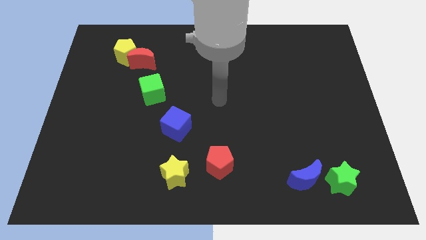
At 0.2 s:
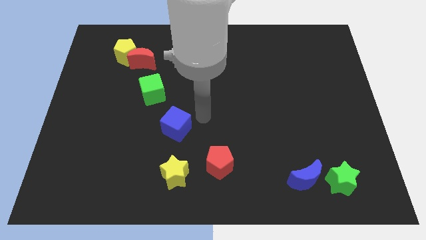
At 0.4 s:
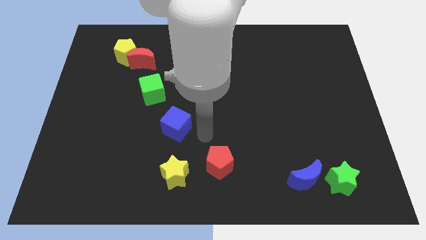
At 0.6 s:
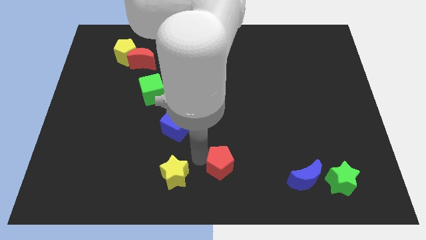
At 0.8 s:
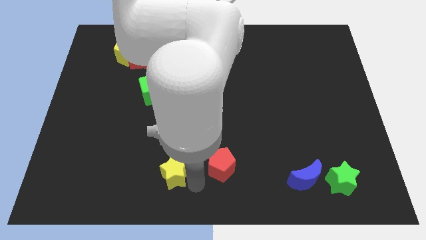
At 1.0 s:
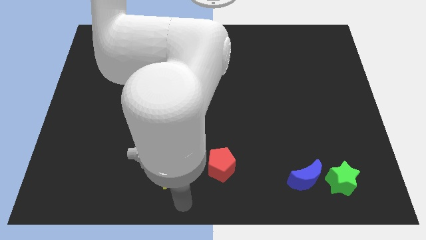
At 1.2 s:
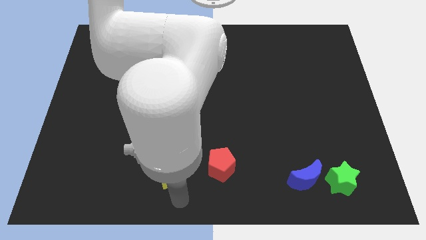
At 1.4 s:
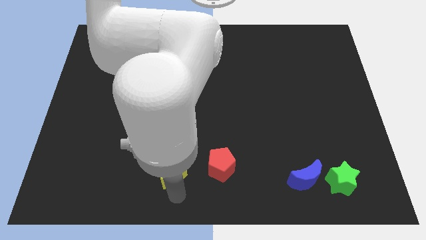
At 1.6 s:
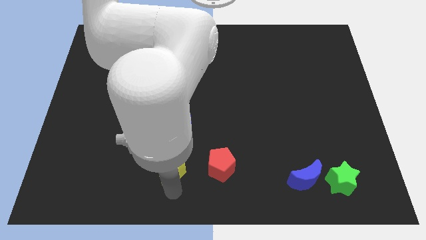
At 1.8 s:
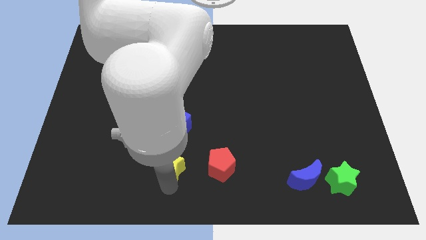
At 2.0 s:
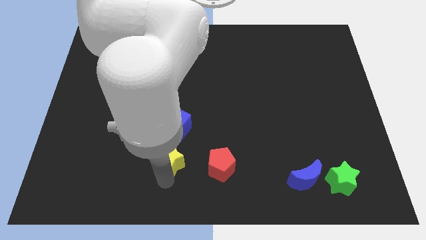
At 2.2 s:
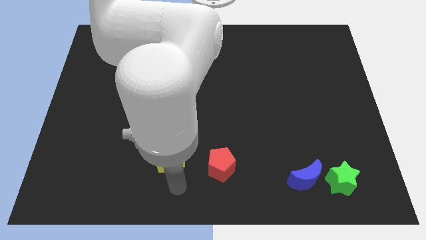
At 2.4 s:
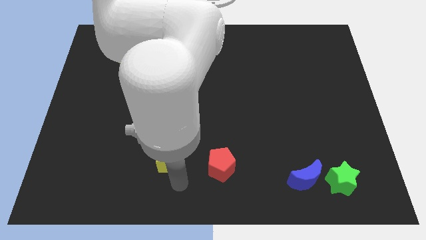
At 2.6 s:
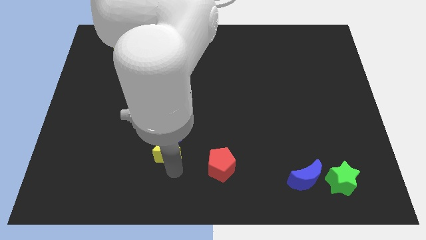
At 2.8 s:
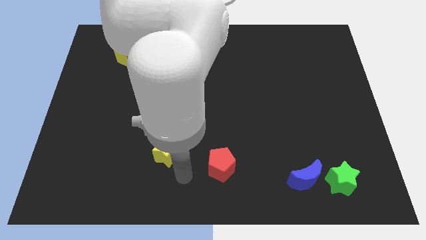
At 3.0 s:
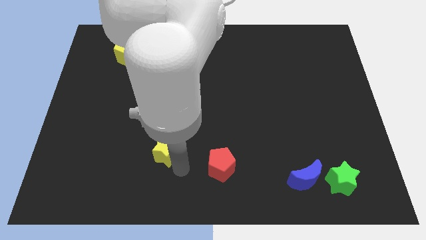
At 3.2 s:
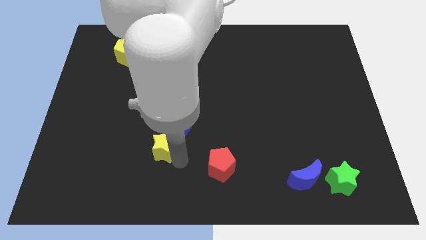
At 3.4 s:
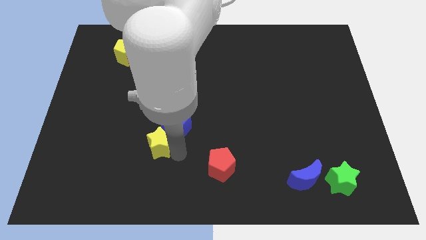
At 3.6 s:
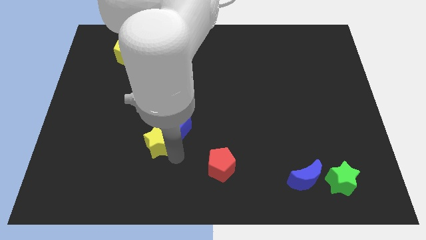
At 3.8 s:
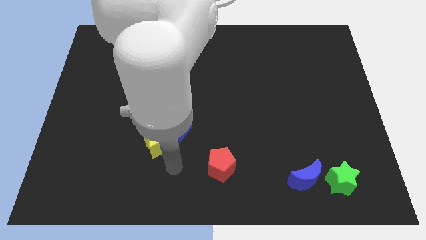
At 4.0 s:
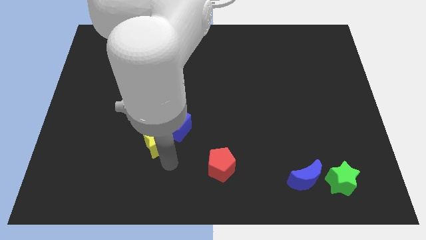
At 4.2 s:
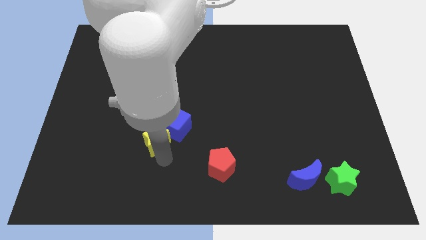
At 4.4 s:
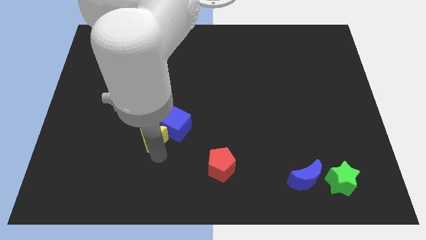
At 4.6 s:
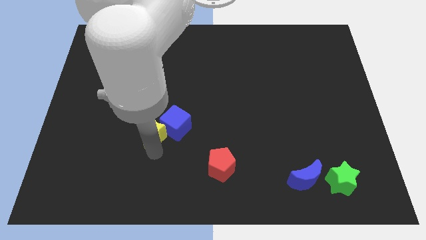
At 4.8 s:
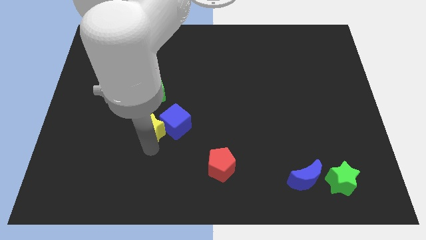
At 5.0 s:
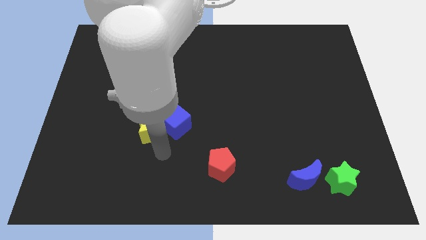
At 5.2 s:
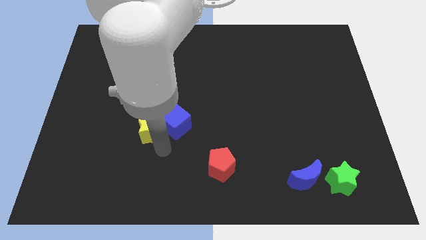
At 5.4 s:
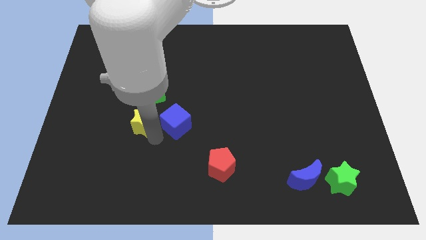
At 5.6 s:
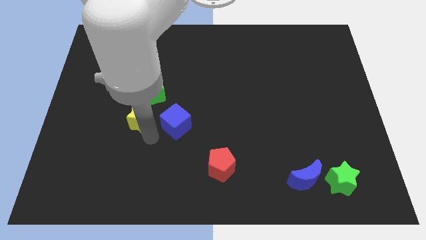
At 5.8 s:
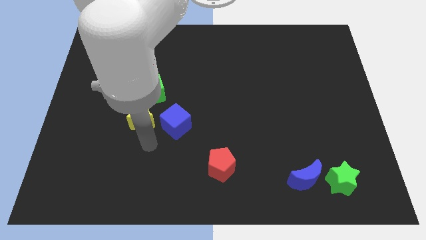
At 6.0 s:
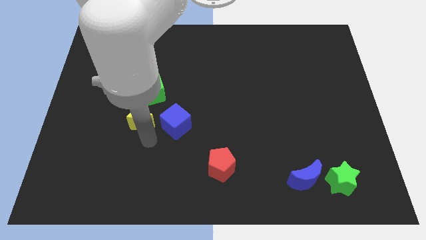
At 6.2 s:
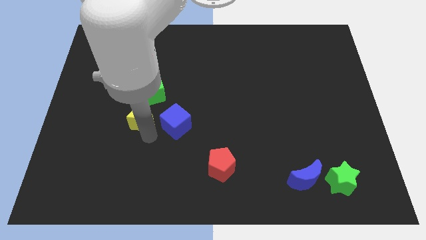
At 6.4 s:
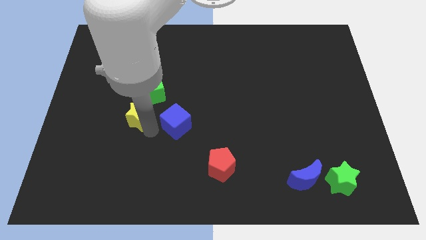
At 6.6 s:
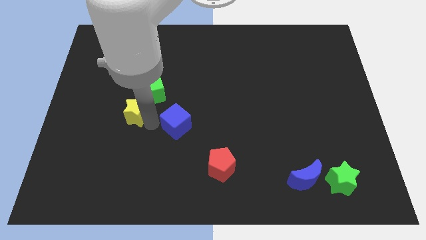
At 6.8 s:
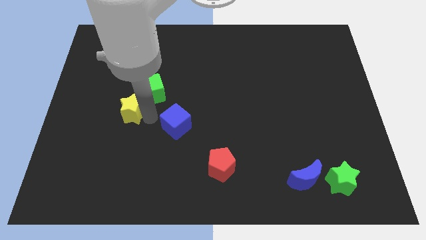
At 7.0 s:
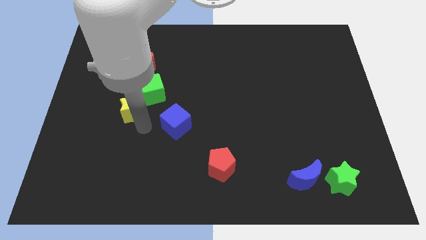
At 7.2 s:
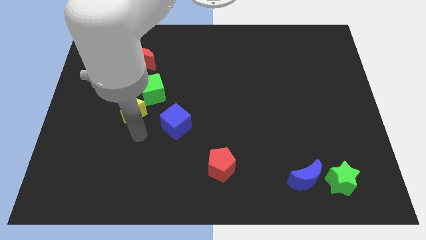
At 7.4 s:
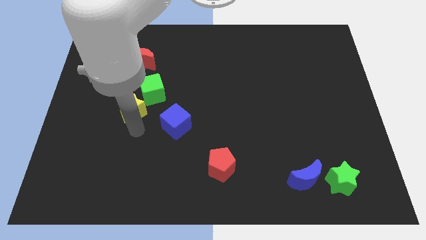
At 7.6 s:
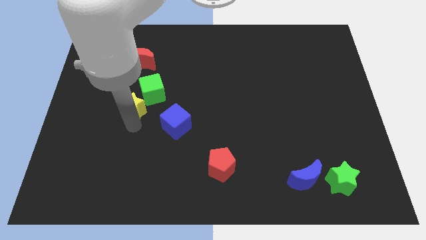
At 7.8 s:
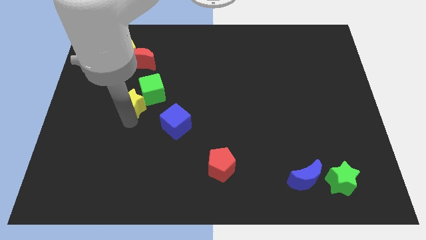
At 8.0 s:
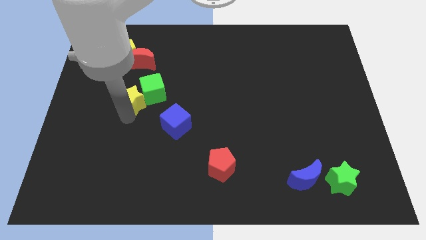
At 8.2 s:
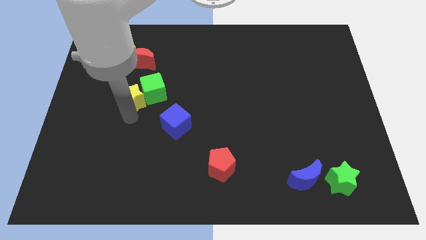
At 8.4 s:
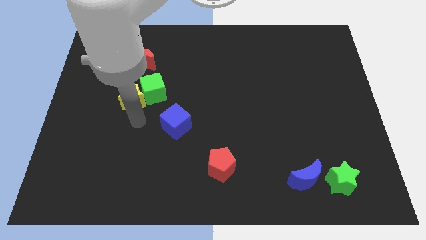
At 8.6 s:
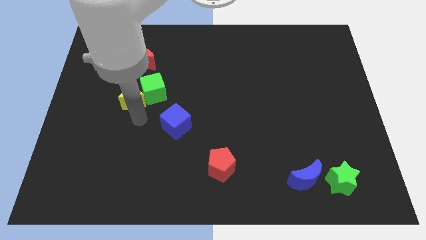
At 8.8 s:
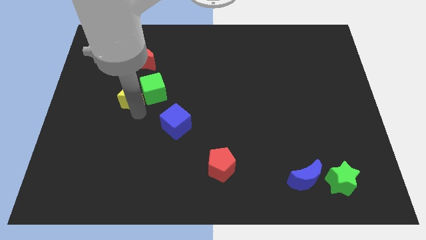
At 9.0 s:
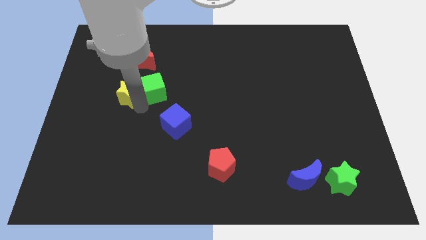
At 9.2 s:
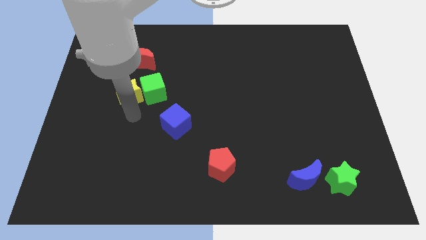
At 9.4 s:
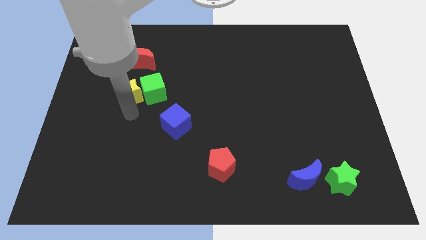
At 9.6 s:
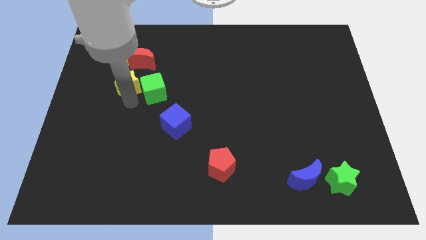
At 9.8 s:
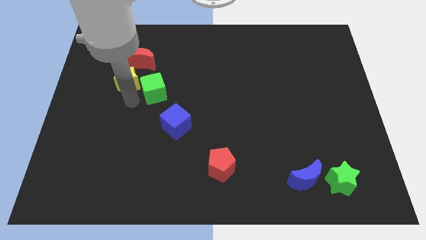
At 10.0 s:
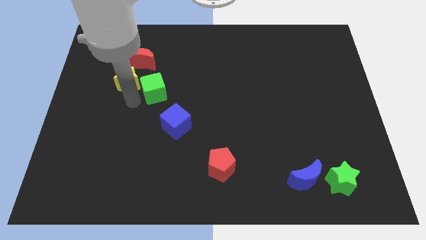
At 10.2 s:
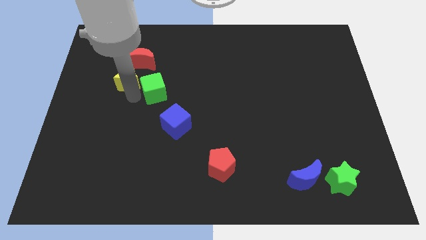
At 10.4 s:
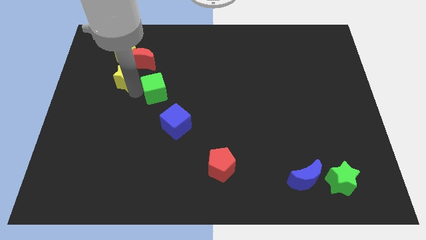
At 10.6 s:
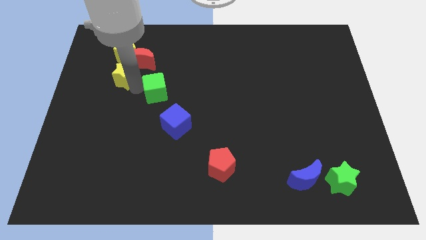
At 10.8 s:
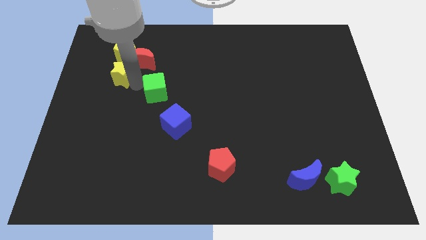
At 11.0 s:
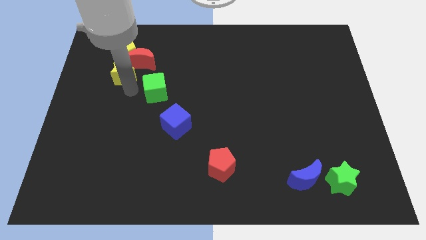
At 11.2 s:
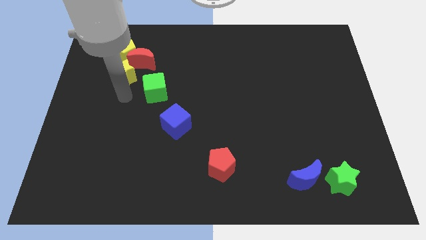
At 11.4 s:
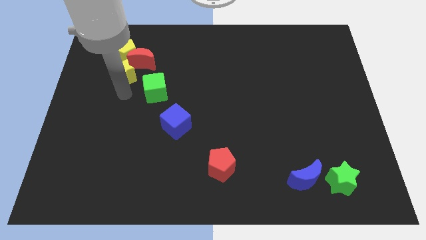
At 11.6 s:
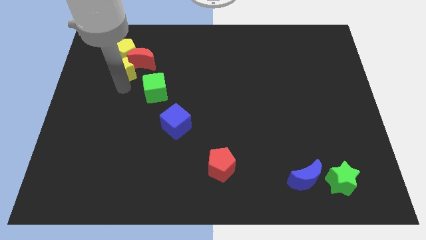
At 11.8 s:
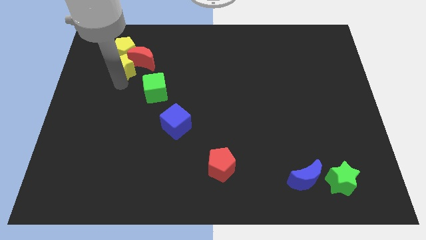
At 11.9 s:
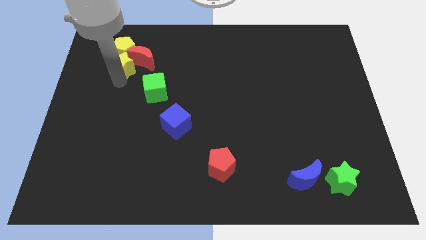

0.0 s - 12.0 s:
put the yellow star towards the yellow pentagon

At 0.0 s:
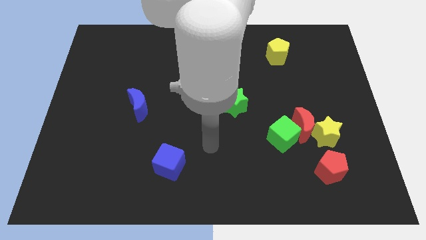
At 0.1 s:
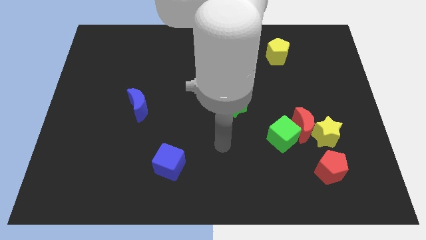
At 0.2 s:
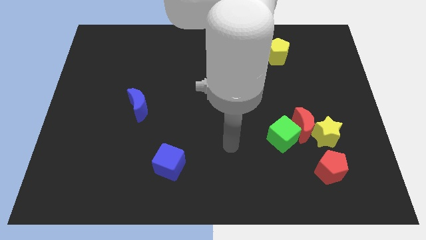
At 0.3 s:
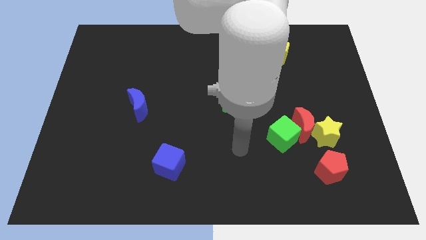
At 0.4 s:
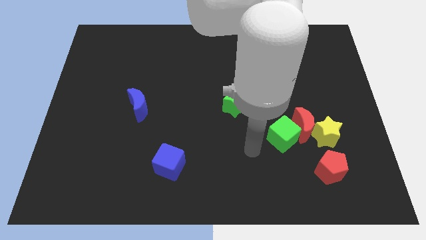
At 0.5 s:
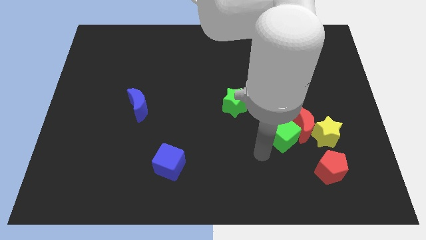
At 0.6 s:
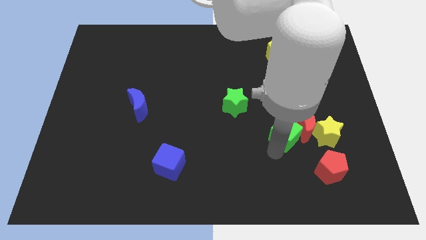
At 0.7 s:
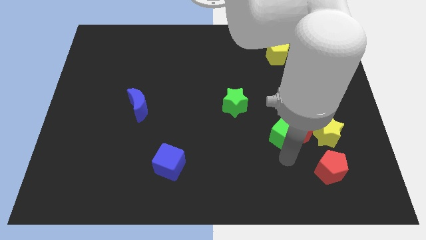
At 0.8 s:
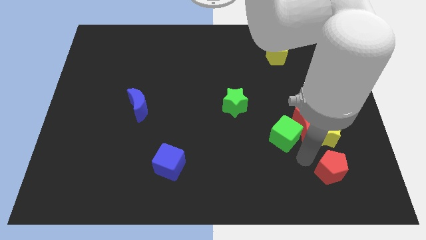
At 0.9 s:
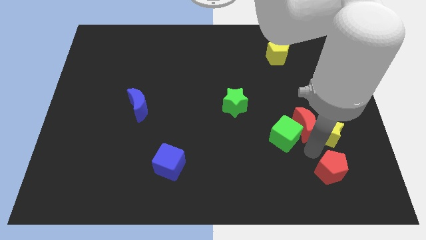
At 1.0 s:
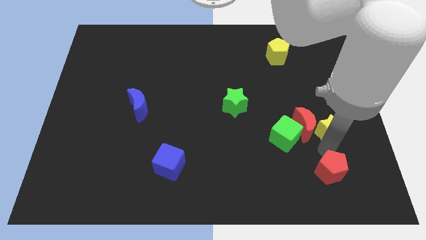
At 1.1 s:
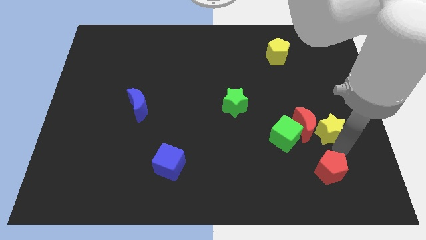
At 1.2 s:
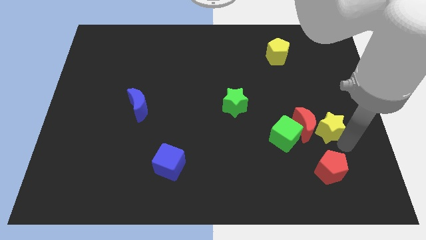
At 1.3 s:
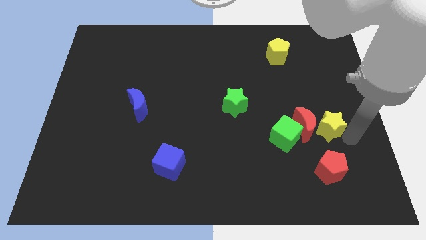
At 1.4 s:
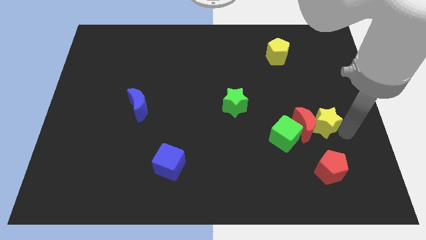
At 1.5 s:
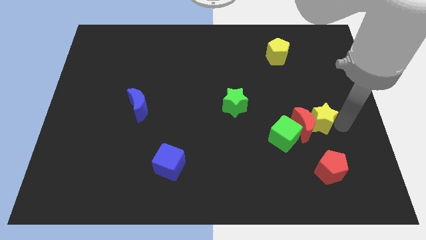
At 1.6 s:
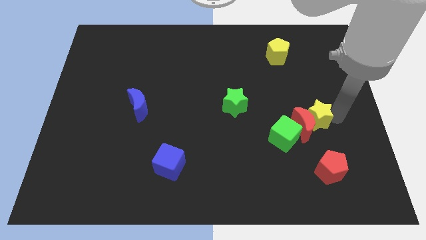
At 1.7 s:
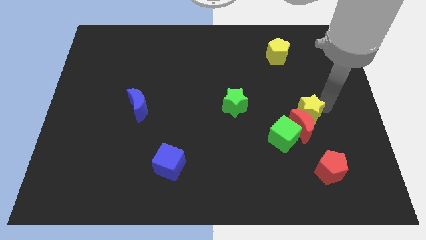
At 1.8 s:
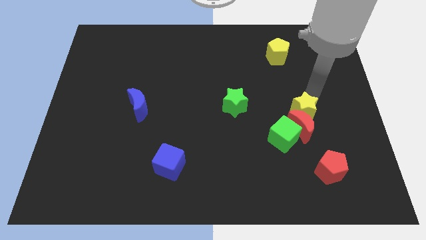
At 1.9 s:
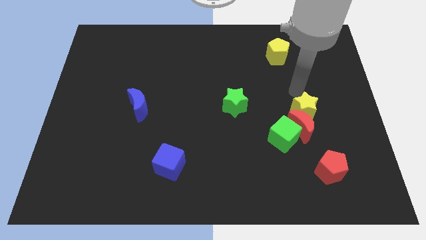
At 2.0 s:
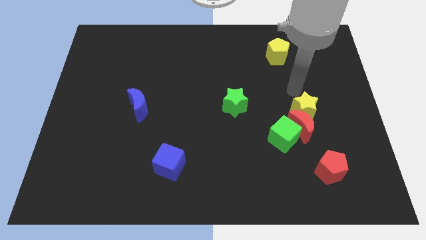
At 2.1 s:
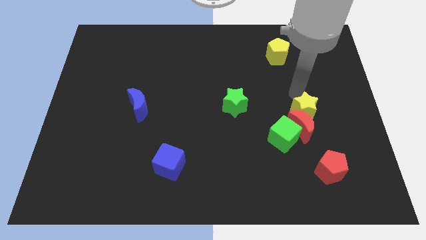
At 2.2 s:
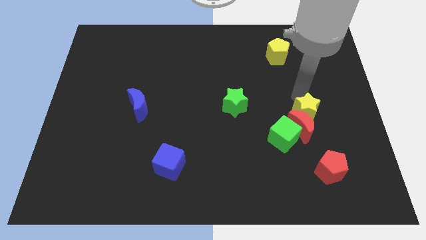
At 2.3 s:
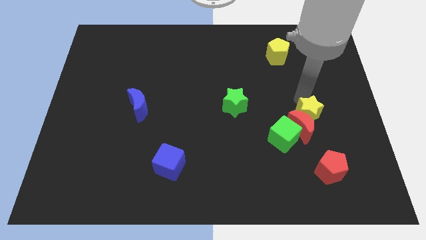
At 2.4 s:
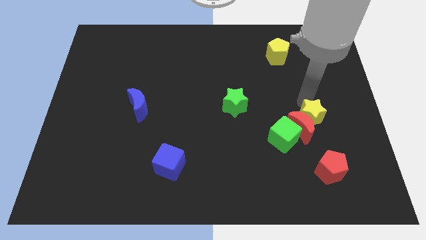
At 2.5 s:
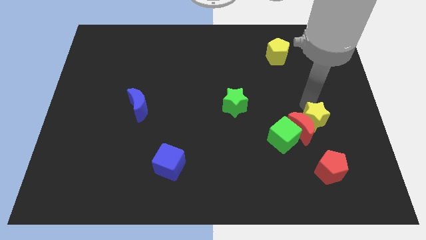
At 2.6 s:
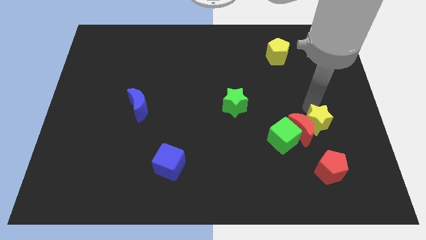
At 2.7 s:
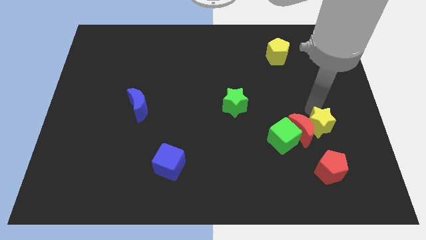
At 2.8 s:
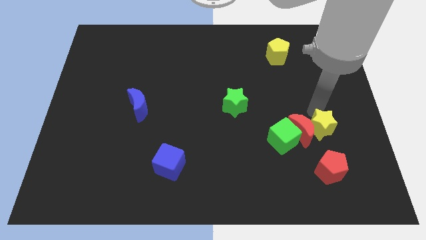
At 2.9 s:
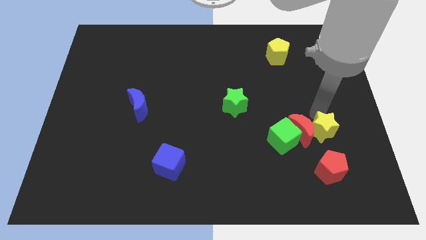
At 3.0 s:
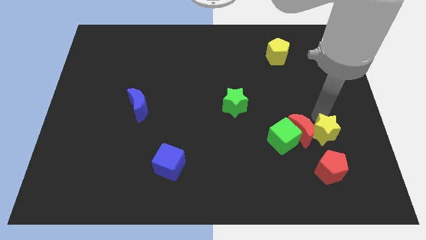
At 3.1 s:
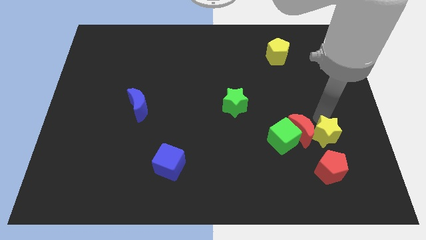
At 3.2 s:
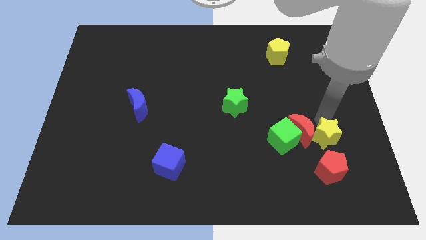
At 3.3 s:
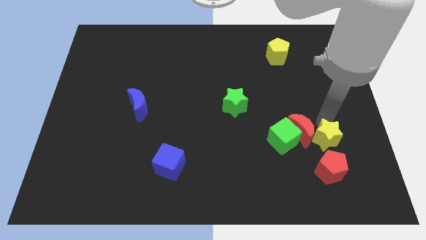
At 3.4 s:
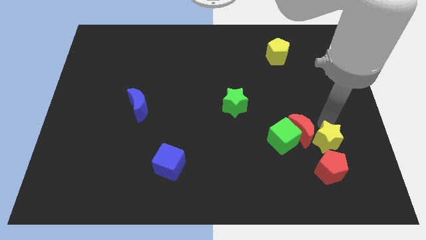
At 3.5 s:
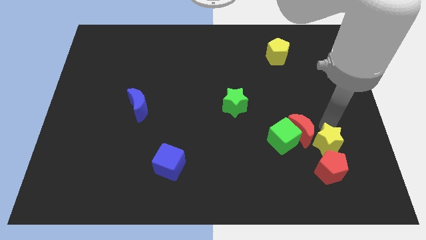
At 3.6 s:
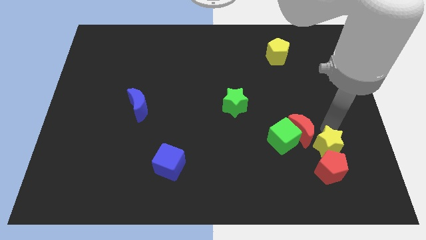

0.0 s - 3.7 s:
push the yellow star next to the red pentagon
